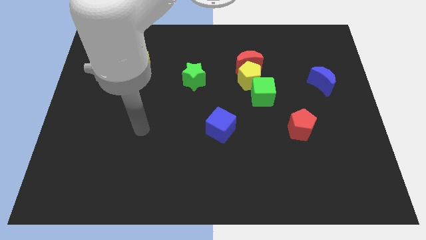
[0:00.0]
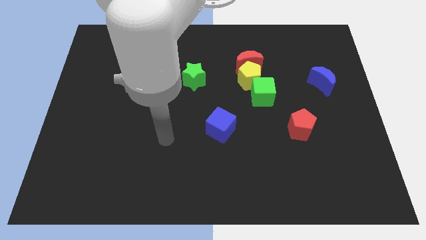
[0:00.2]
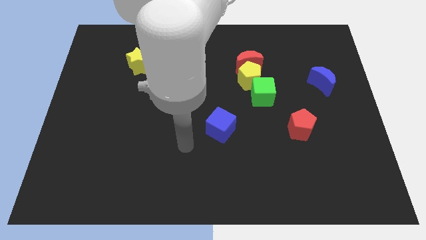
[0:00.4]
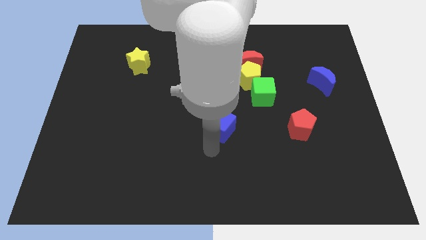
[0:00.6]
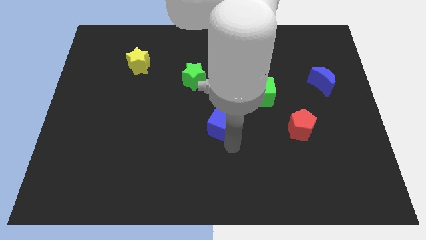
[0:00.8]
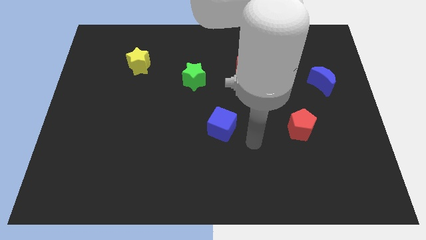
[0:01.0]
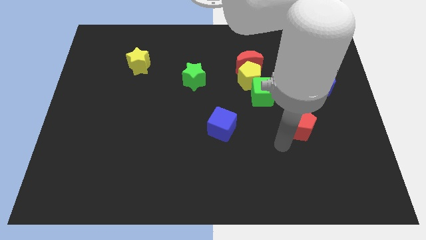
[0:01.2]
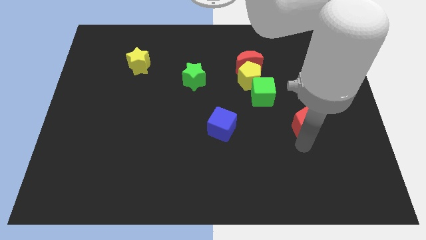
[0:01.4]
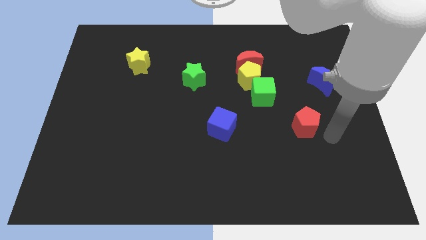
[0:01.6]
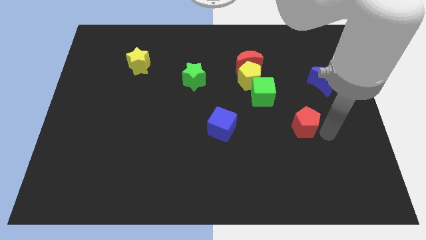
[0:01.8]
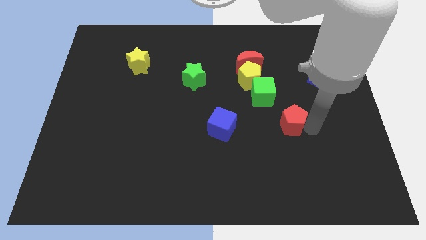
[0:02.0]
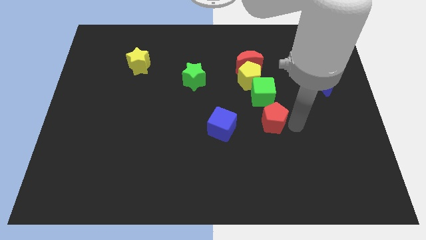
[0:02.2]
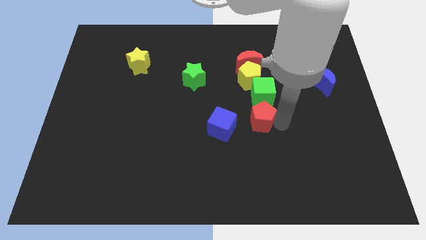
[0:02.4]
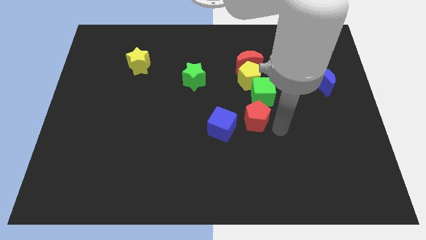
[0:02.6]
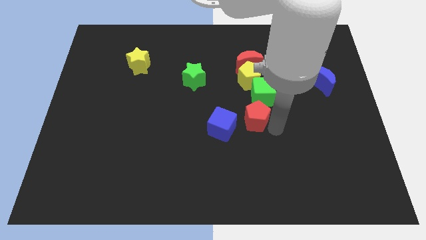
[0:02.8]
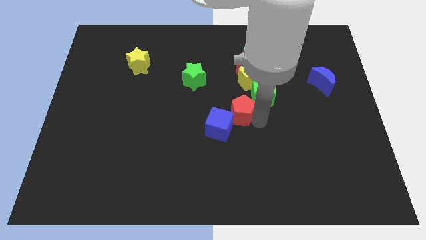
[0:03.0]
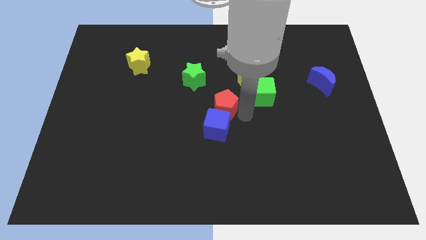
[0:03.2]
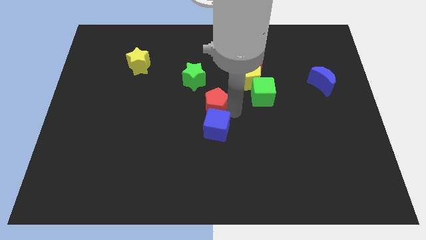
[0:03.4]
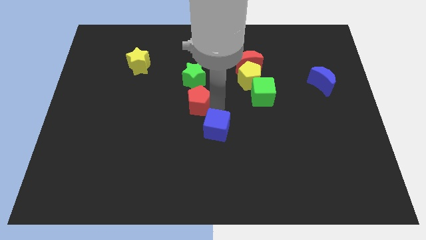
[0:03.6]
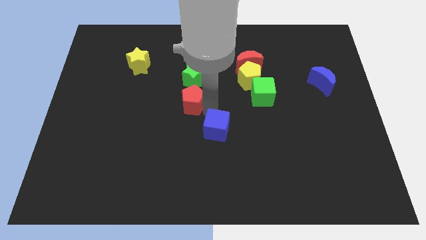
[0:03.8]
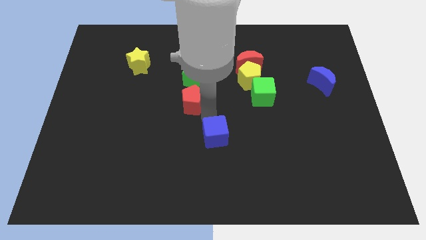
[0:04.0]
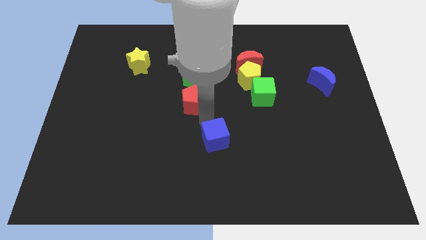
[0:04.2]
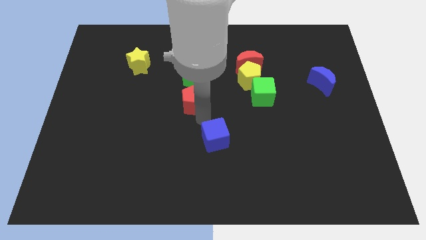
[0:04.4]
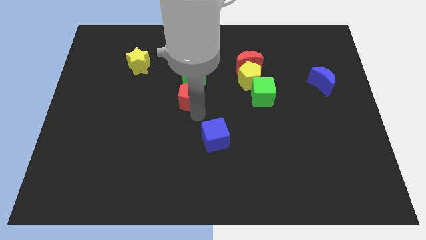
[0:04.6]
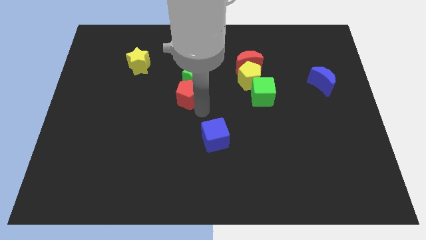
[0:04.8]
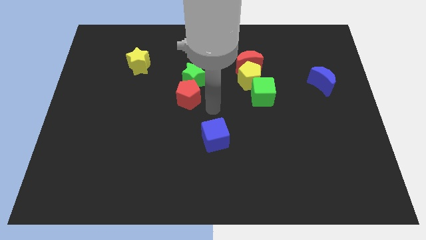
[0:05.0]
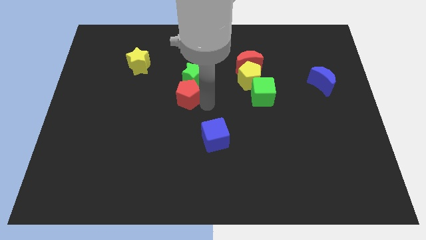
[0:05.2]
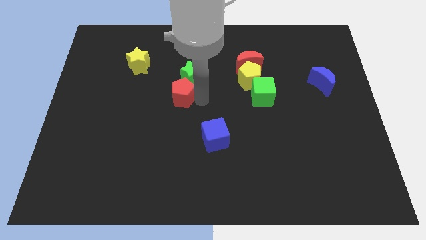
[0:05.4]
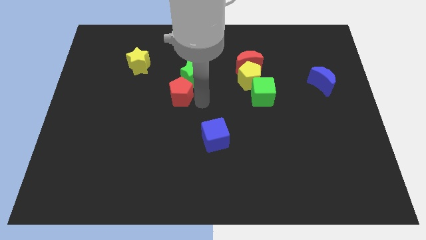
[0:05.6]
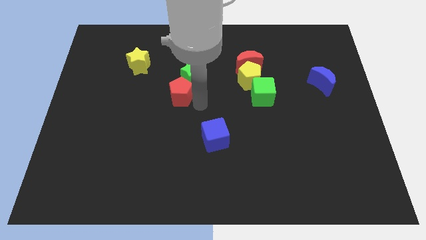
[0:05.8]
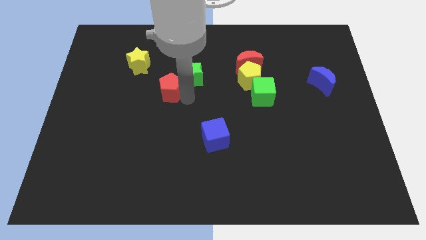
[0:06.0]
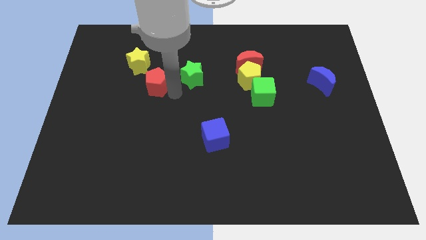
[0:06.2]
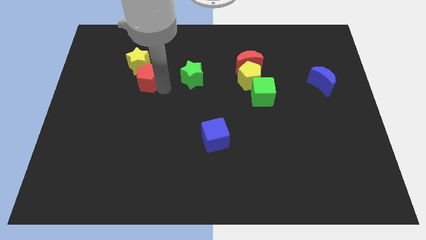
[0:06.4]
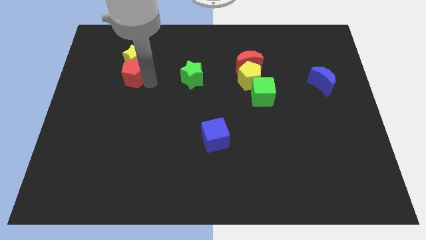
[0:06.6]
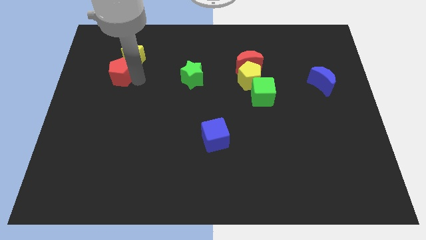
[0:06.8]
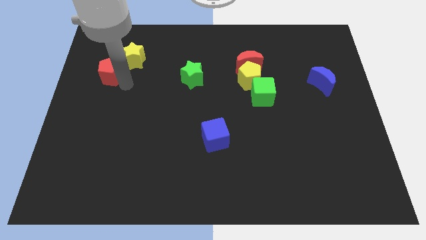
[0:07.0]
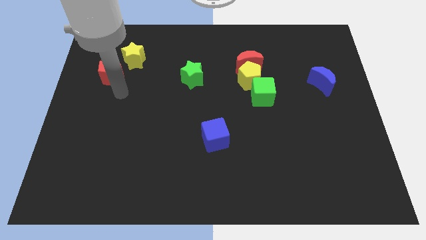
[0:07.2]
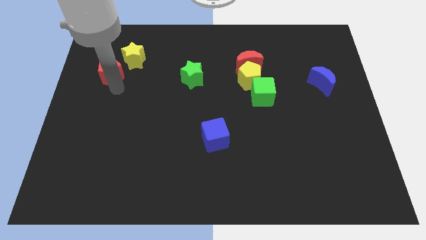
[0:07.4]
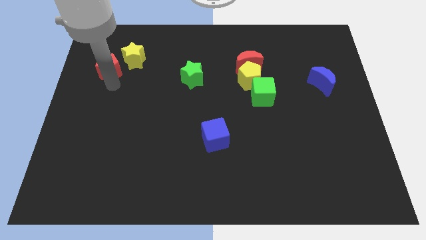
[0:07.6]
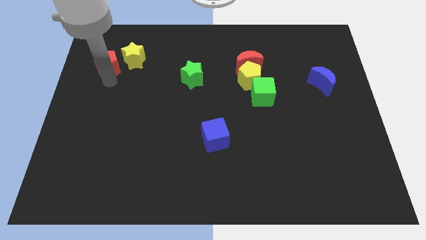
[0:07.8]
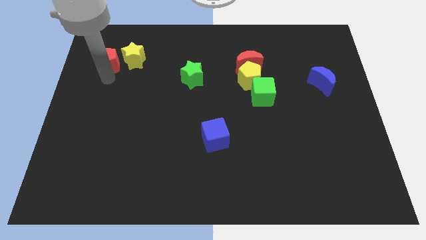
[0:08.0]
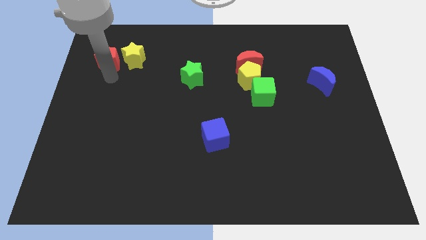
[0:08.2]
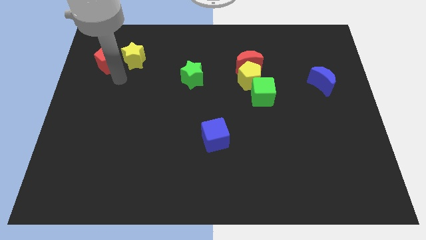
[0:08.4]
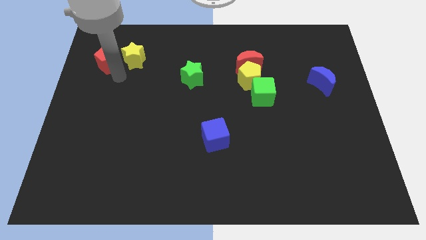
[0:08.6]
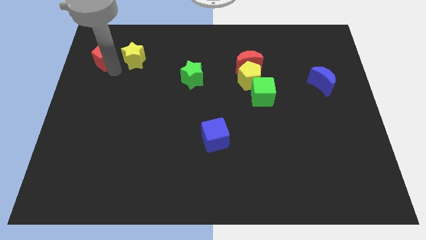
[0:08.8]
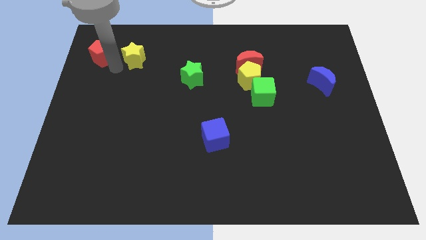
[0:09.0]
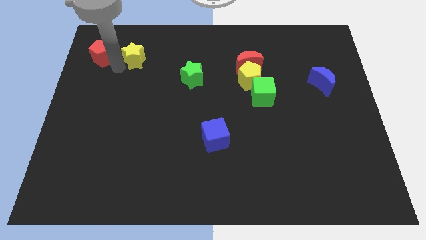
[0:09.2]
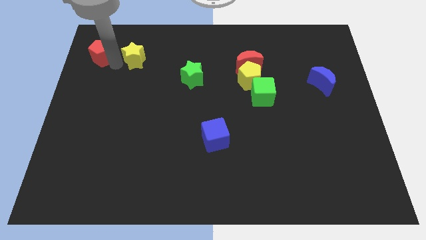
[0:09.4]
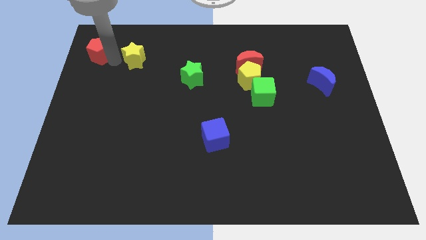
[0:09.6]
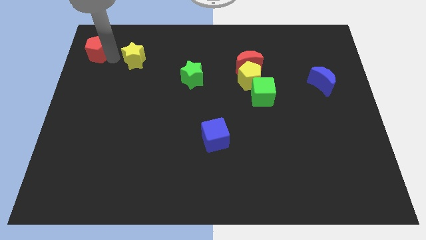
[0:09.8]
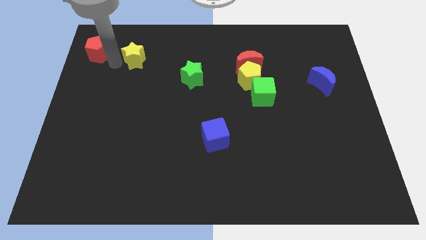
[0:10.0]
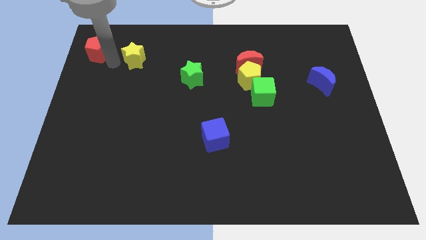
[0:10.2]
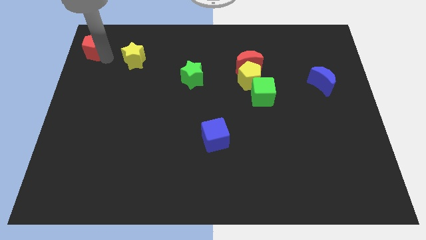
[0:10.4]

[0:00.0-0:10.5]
move the red pentagon to the upper left corner
